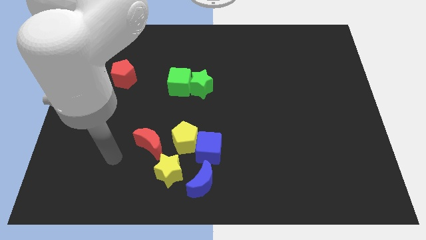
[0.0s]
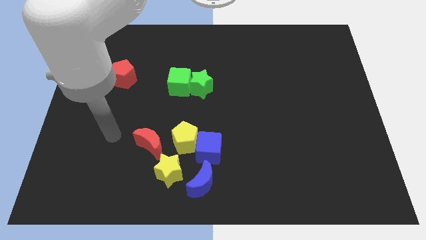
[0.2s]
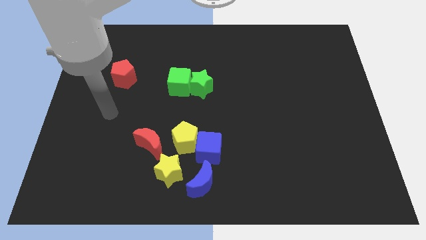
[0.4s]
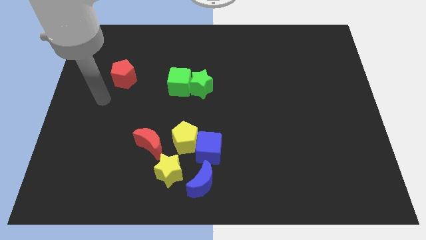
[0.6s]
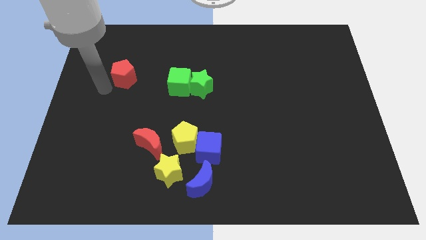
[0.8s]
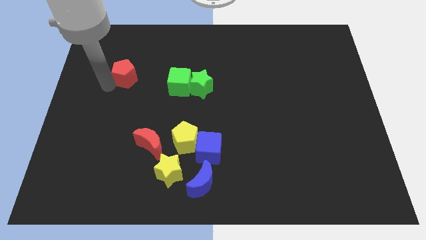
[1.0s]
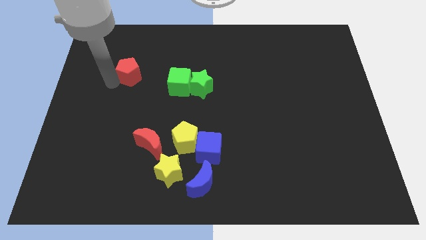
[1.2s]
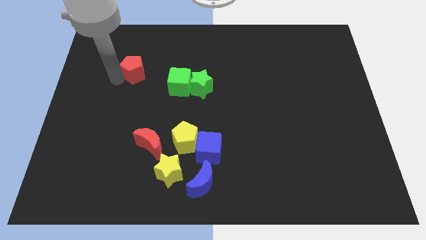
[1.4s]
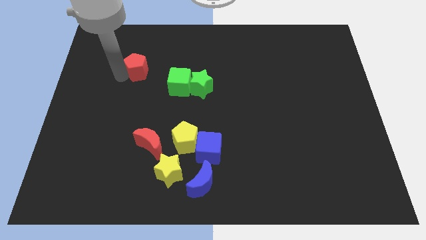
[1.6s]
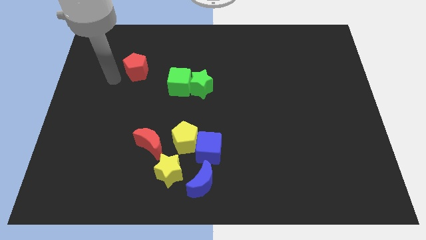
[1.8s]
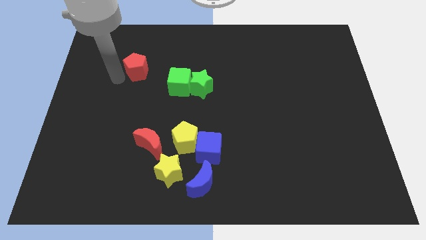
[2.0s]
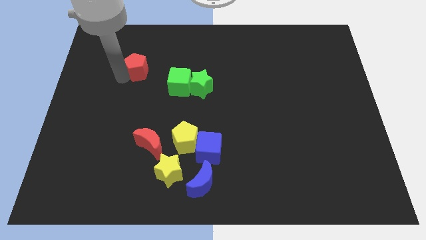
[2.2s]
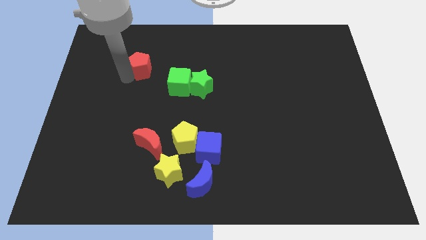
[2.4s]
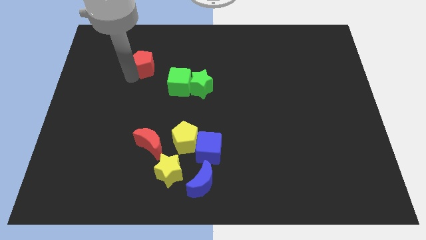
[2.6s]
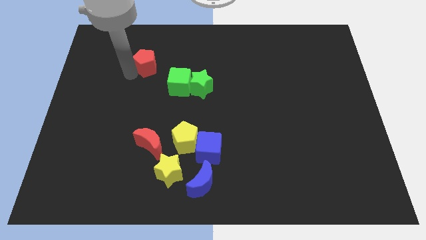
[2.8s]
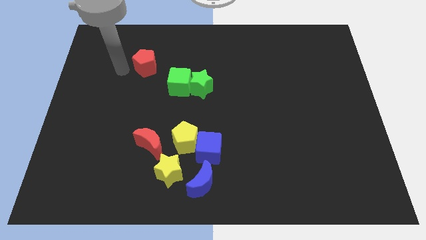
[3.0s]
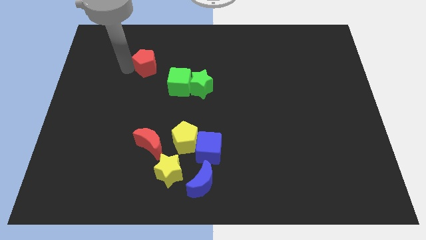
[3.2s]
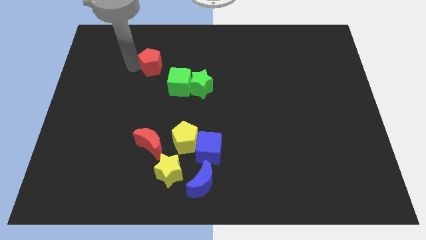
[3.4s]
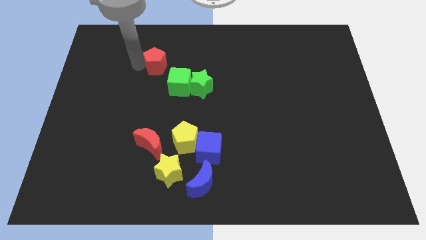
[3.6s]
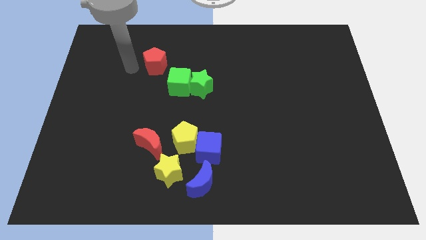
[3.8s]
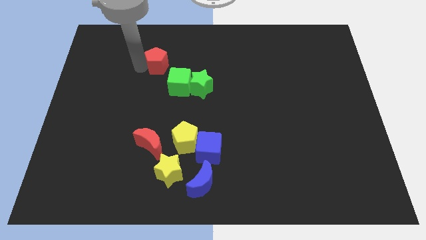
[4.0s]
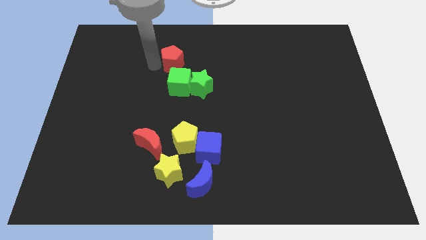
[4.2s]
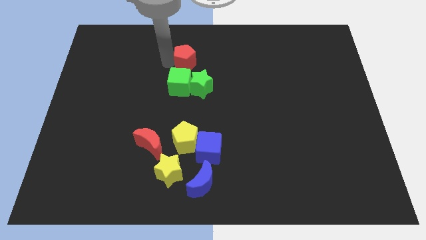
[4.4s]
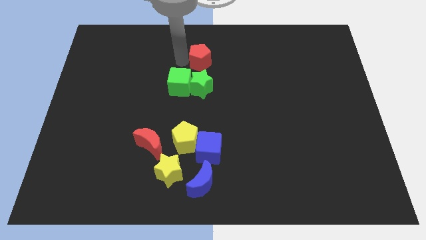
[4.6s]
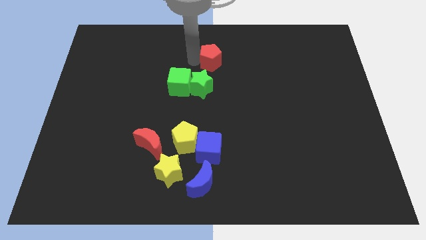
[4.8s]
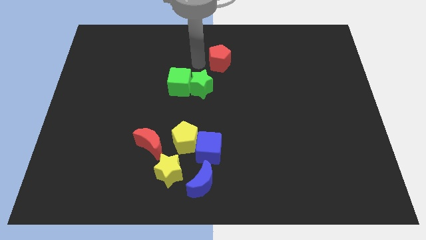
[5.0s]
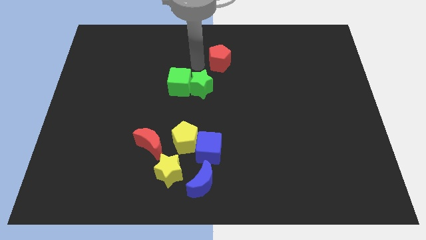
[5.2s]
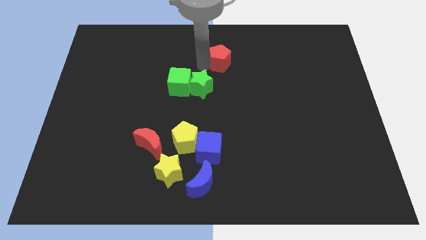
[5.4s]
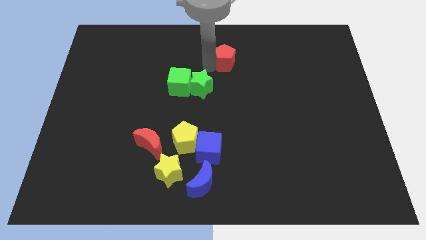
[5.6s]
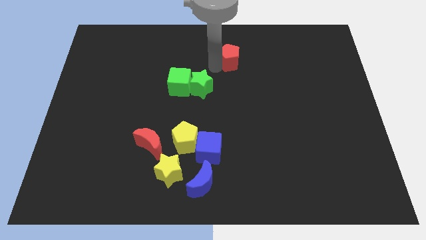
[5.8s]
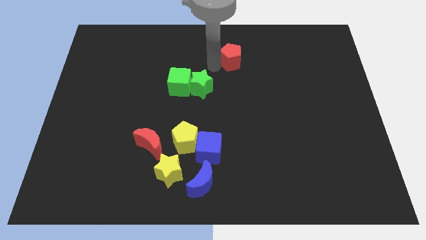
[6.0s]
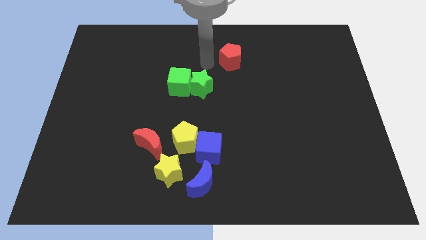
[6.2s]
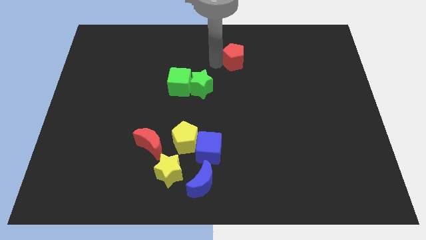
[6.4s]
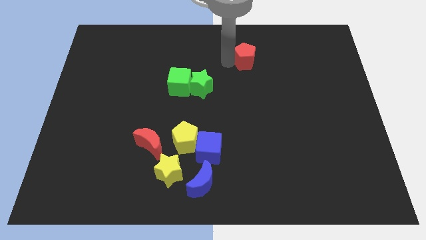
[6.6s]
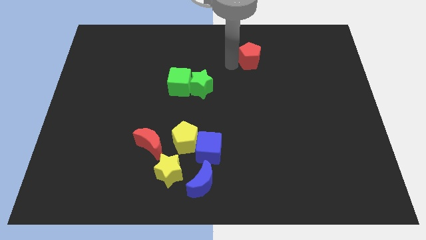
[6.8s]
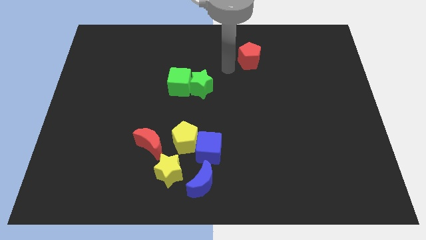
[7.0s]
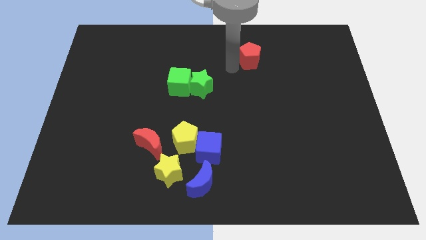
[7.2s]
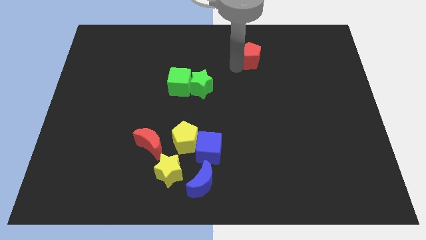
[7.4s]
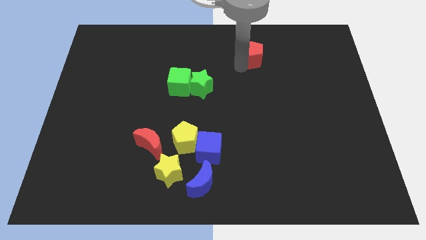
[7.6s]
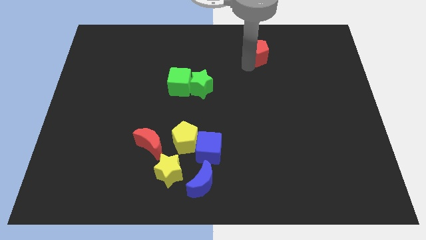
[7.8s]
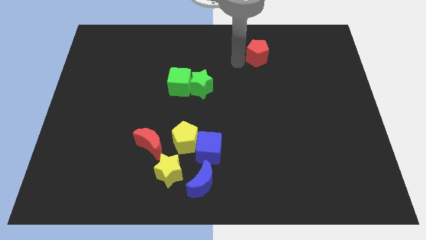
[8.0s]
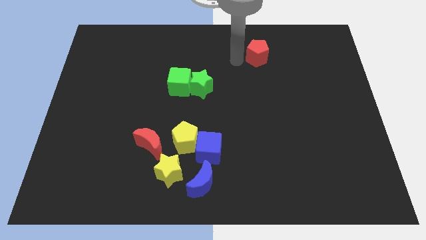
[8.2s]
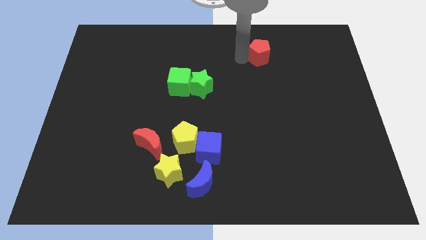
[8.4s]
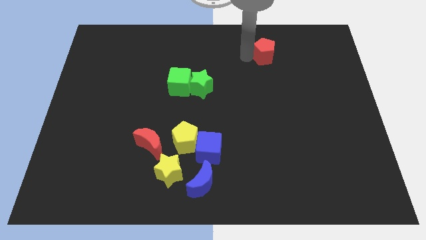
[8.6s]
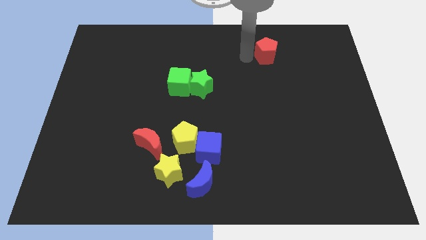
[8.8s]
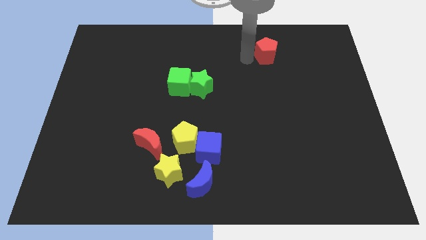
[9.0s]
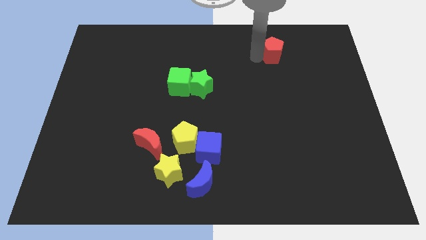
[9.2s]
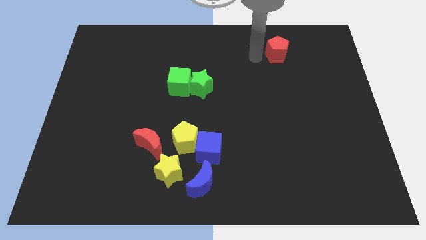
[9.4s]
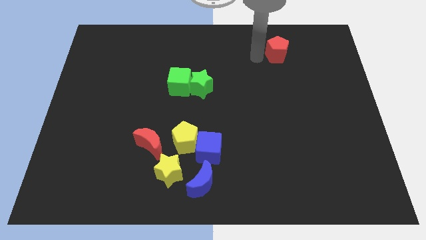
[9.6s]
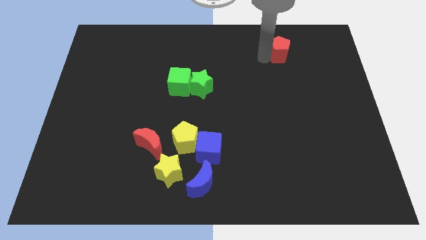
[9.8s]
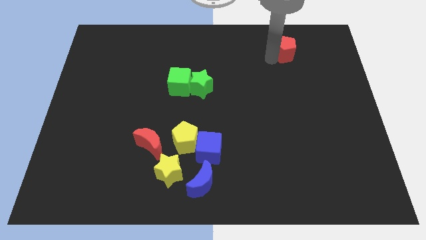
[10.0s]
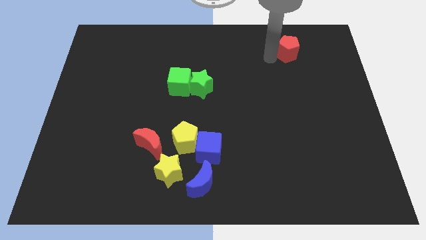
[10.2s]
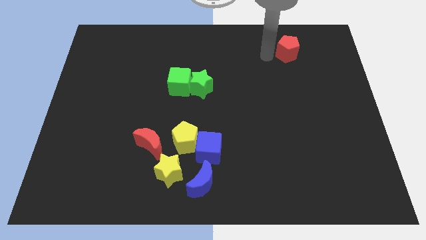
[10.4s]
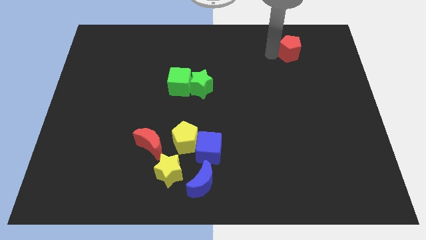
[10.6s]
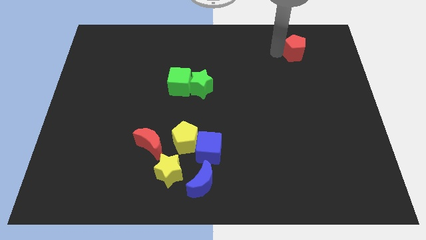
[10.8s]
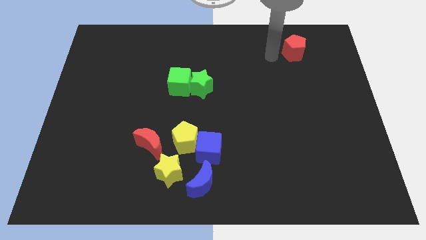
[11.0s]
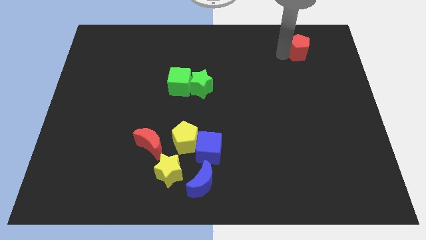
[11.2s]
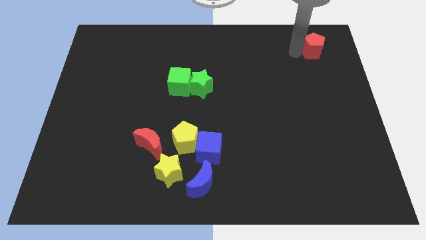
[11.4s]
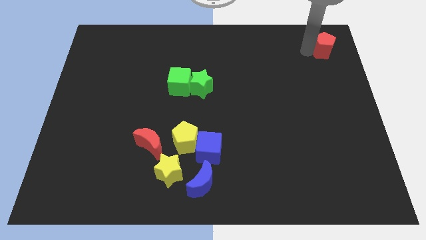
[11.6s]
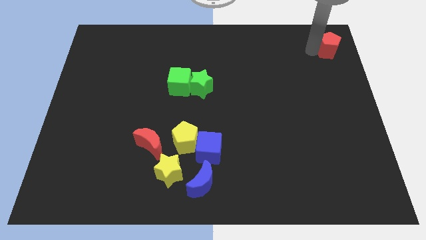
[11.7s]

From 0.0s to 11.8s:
put the red pentagon to the top right

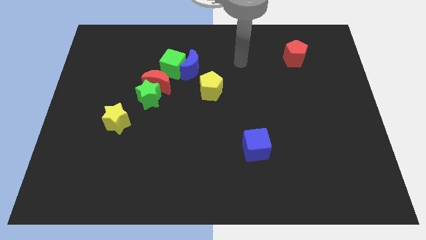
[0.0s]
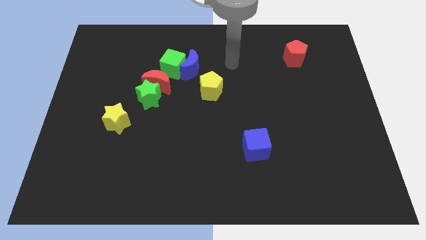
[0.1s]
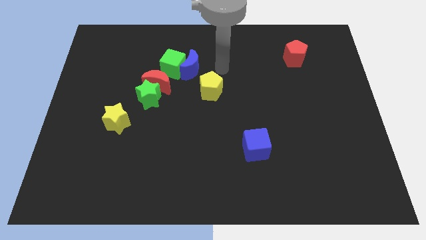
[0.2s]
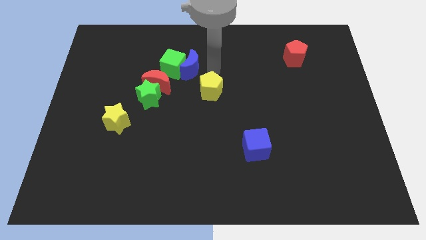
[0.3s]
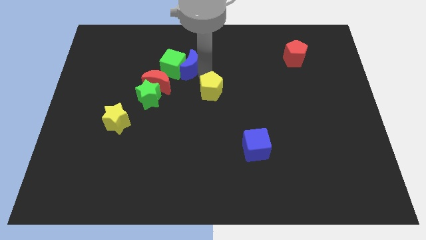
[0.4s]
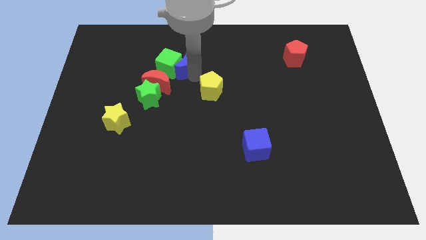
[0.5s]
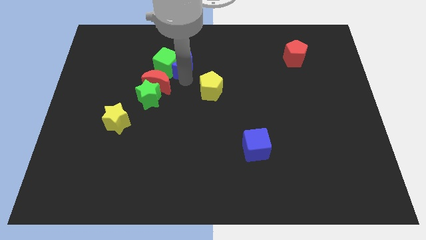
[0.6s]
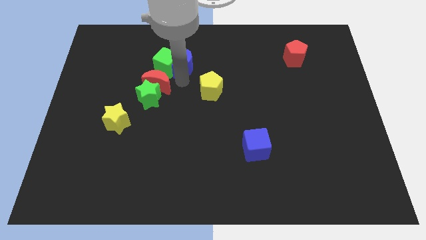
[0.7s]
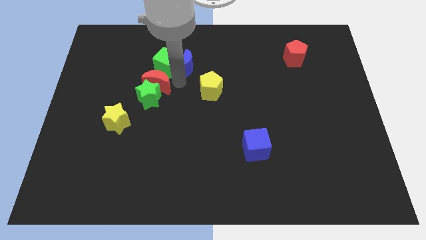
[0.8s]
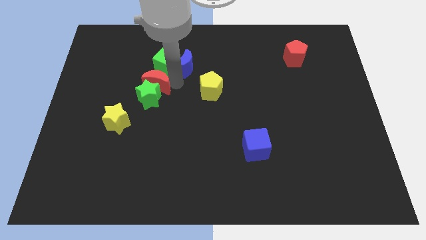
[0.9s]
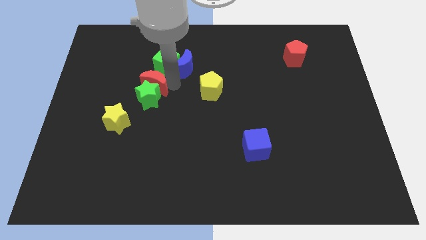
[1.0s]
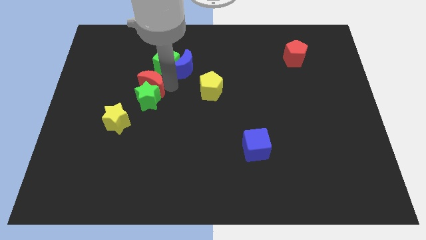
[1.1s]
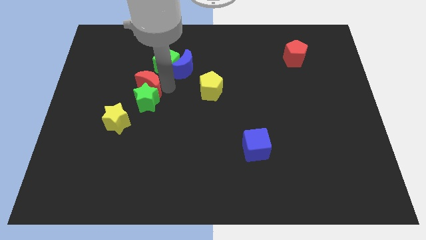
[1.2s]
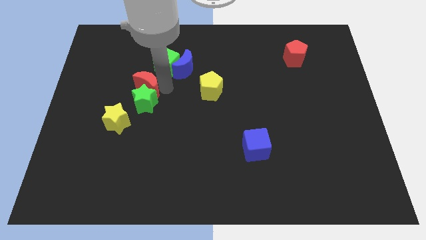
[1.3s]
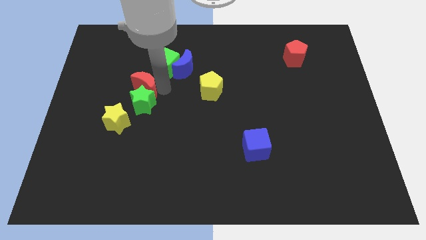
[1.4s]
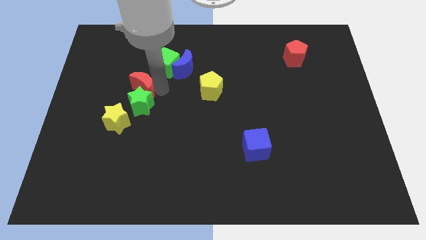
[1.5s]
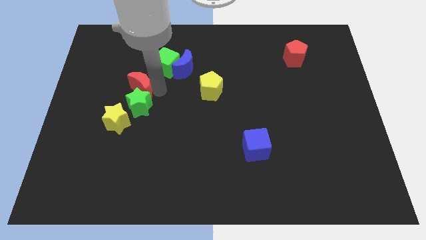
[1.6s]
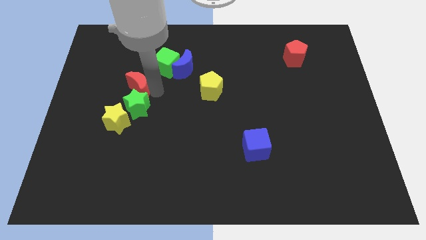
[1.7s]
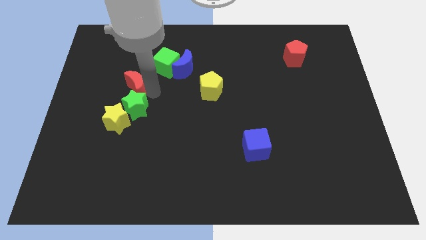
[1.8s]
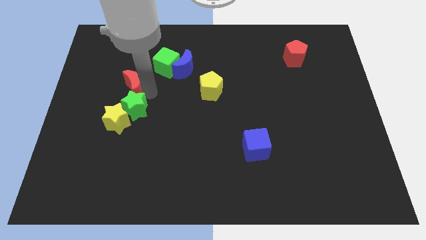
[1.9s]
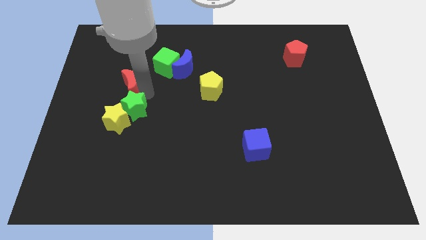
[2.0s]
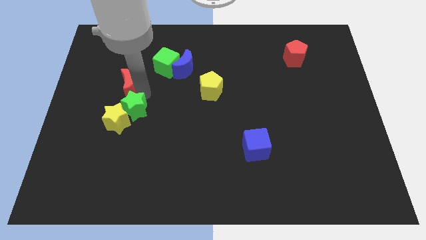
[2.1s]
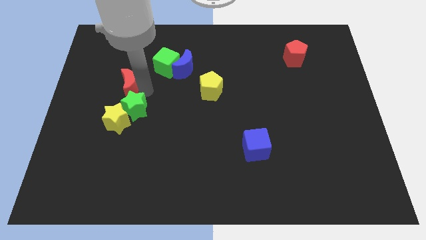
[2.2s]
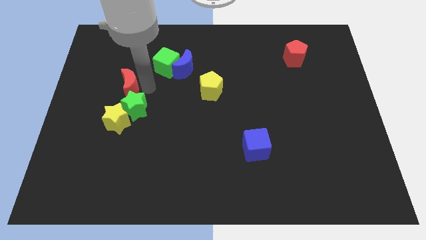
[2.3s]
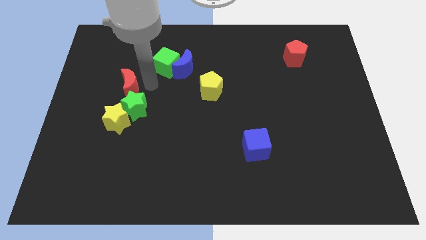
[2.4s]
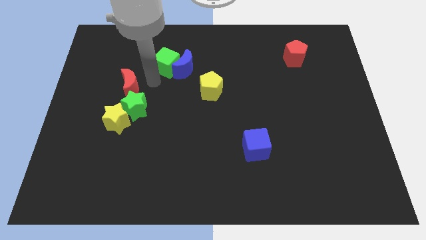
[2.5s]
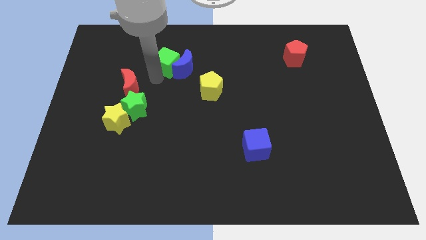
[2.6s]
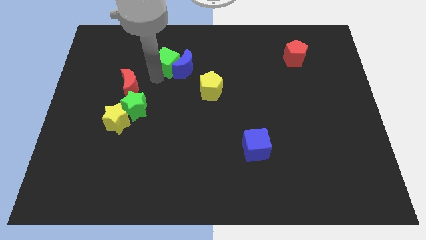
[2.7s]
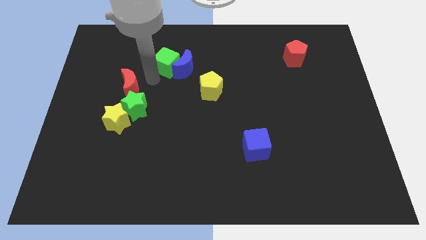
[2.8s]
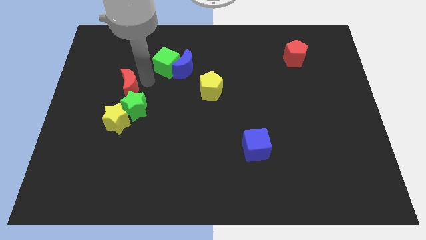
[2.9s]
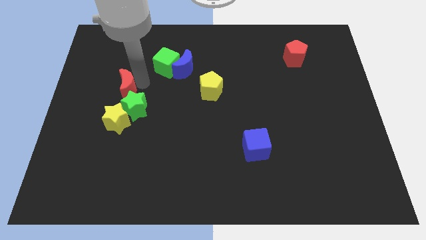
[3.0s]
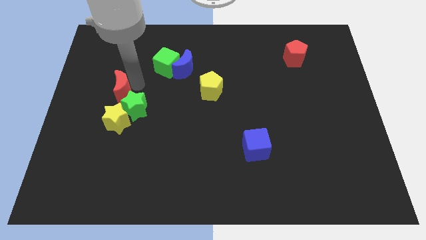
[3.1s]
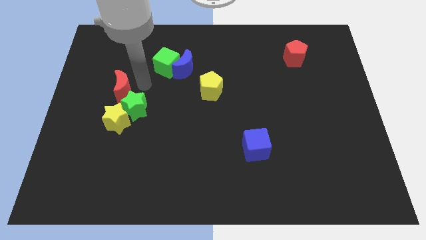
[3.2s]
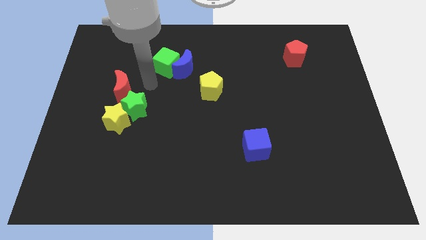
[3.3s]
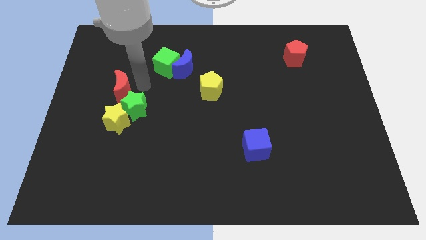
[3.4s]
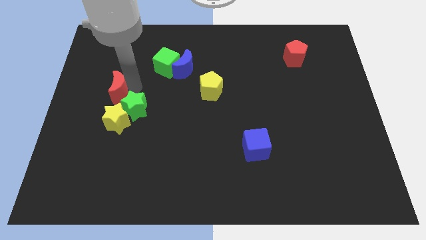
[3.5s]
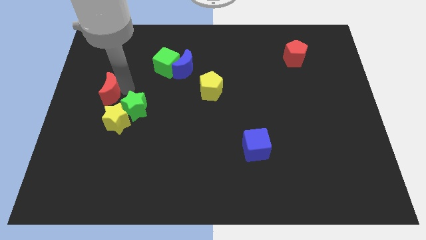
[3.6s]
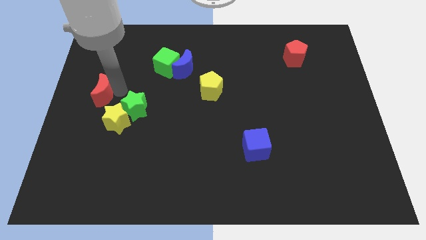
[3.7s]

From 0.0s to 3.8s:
push the red moon to the left side
